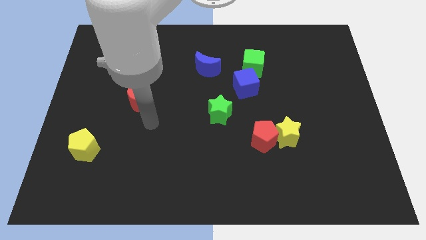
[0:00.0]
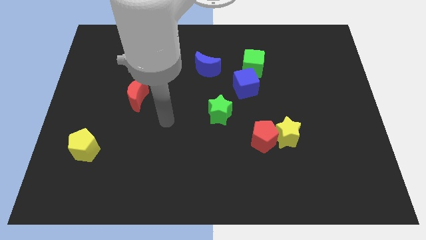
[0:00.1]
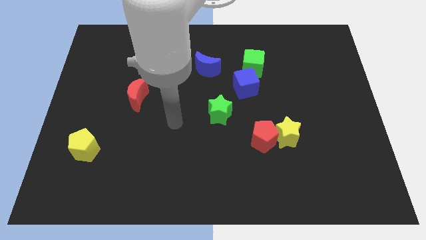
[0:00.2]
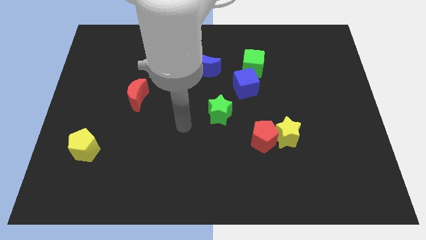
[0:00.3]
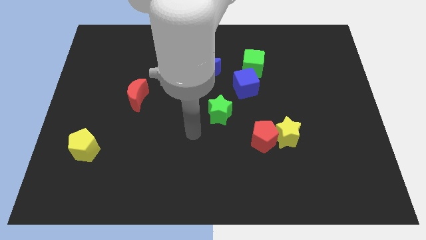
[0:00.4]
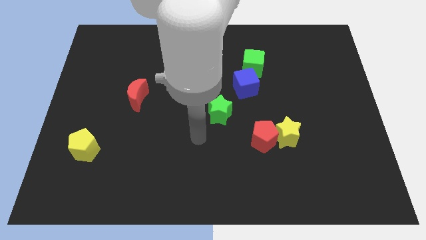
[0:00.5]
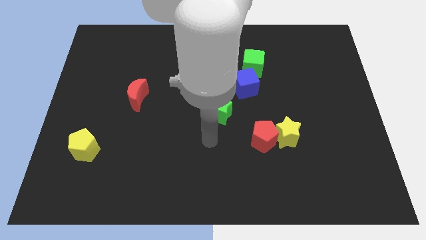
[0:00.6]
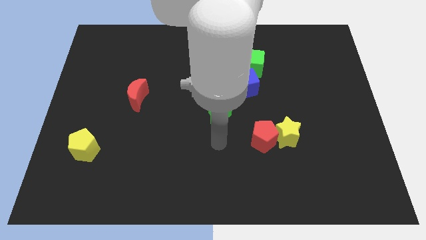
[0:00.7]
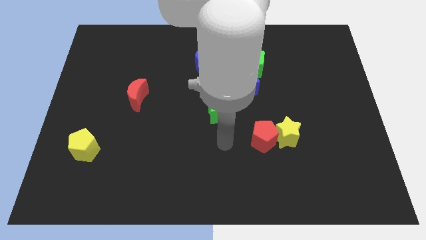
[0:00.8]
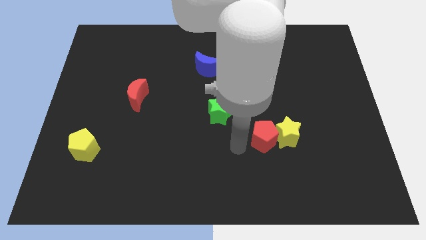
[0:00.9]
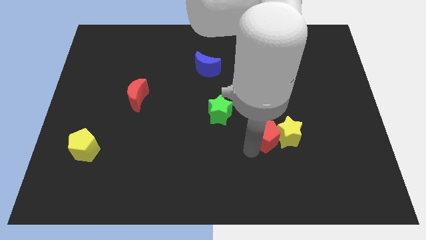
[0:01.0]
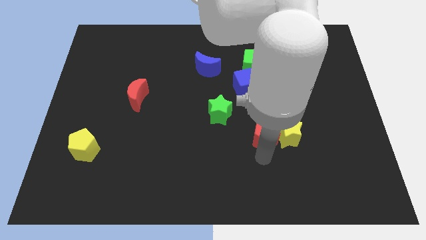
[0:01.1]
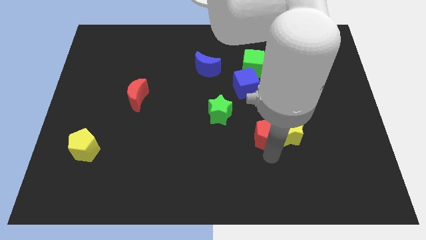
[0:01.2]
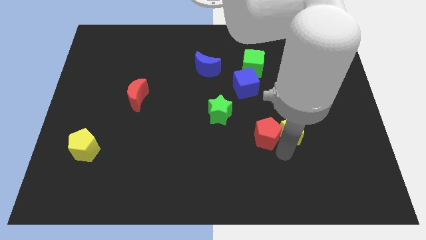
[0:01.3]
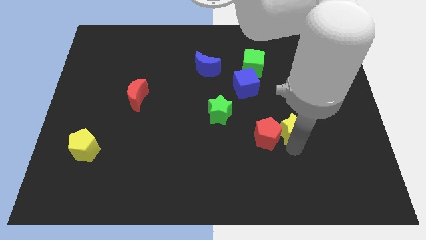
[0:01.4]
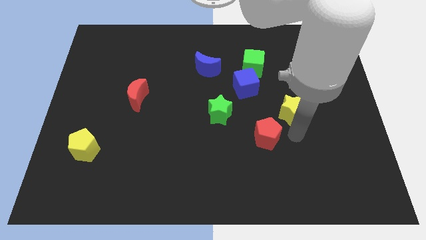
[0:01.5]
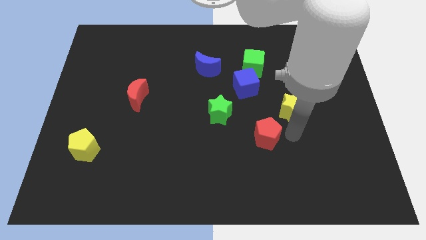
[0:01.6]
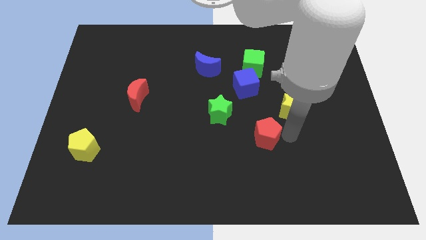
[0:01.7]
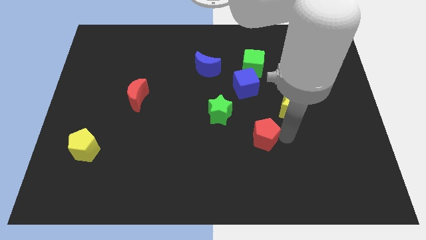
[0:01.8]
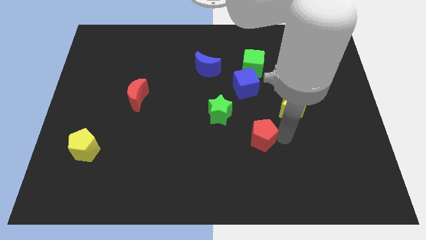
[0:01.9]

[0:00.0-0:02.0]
separate the red pentagon from the yellow star

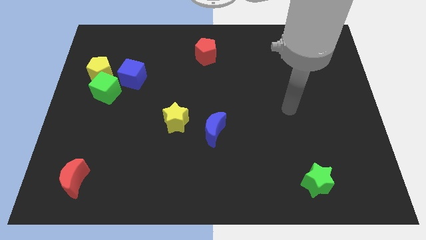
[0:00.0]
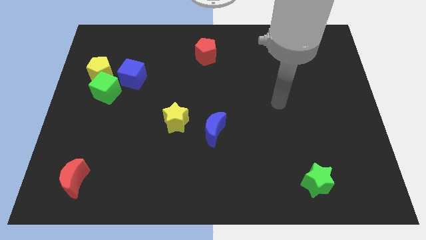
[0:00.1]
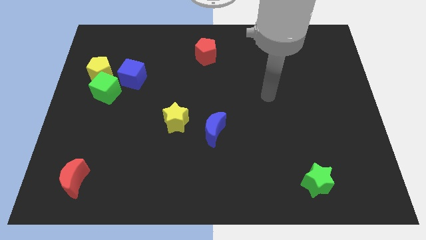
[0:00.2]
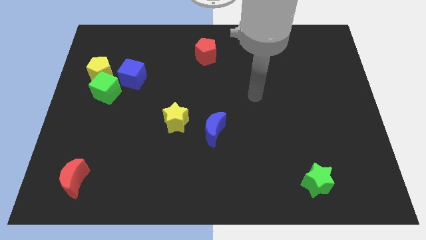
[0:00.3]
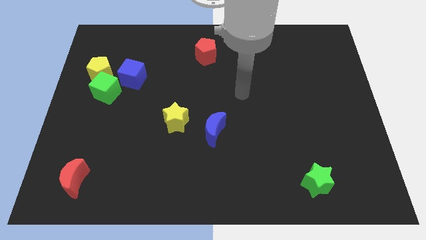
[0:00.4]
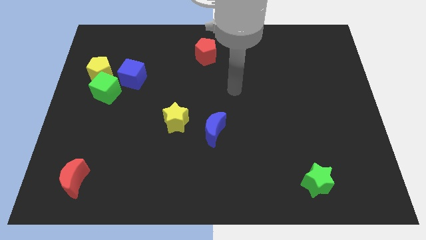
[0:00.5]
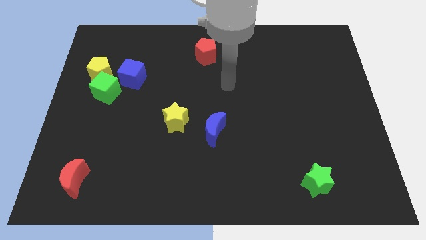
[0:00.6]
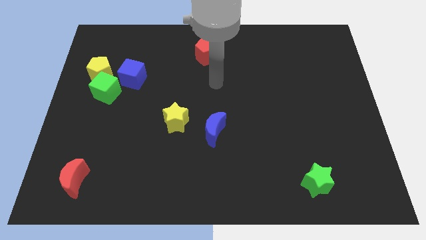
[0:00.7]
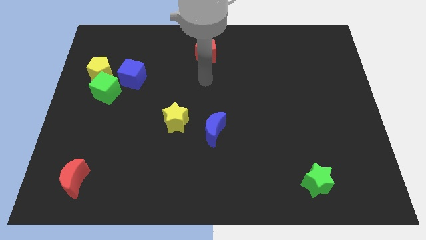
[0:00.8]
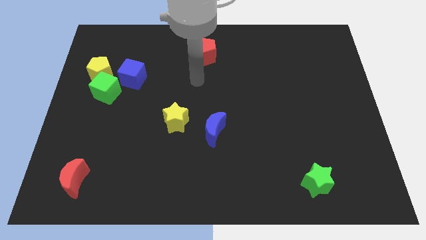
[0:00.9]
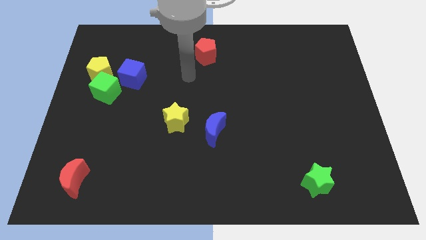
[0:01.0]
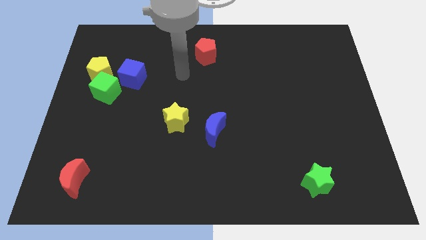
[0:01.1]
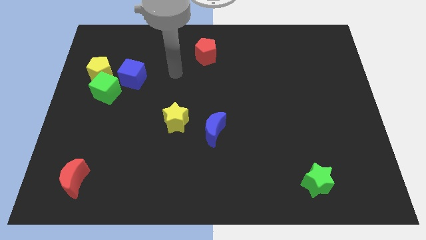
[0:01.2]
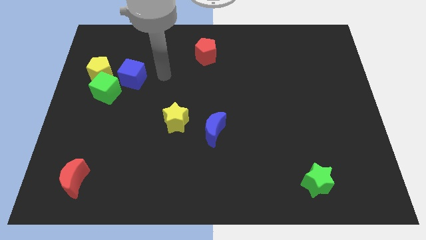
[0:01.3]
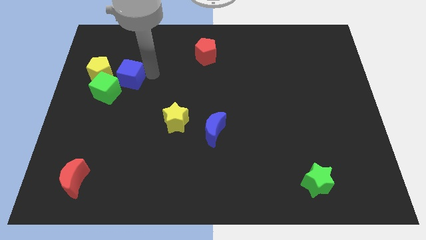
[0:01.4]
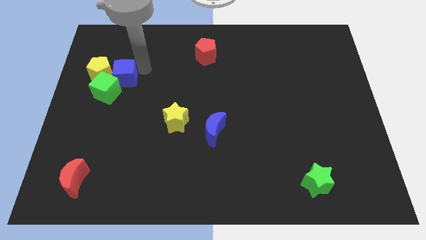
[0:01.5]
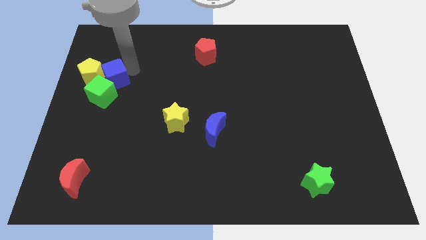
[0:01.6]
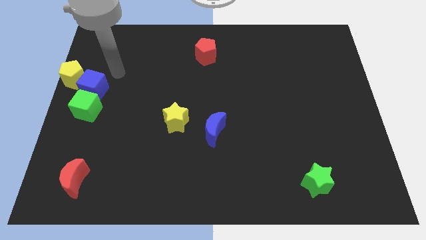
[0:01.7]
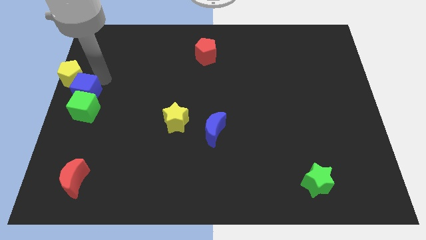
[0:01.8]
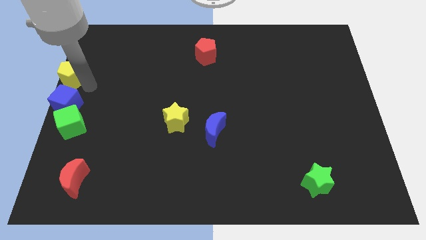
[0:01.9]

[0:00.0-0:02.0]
separate the green cube from the yellow pentagon and blue cube

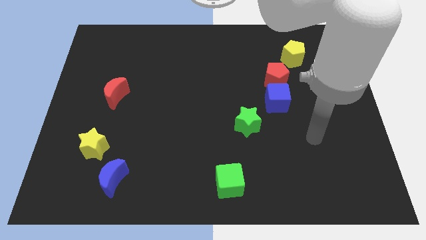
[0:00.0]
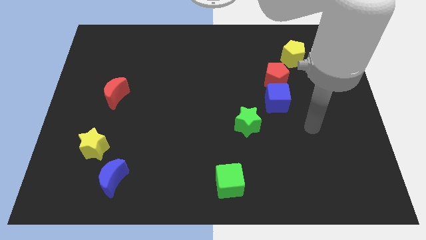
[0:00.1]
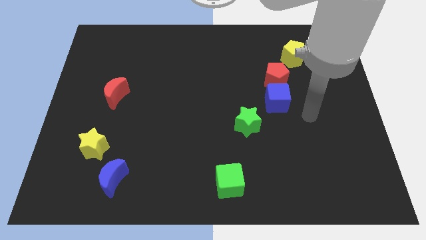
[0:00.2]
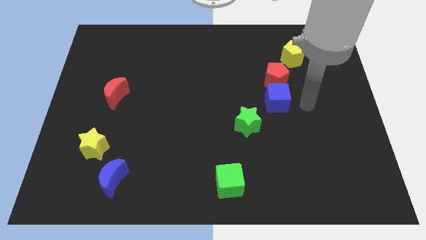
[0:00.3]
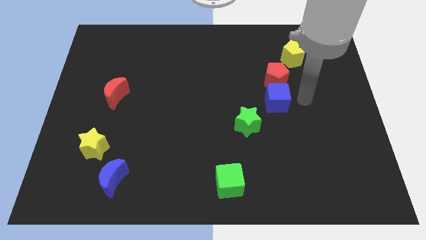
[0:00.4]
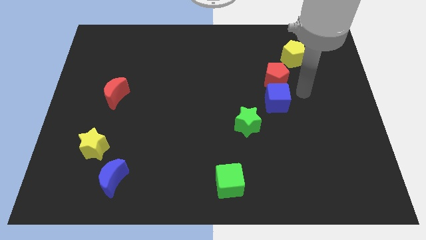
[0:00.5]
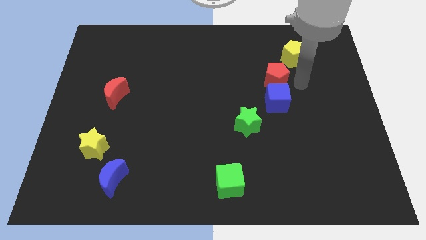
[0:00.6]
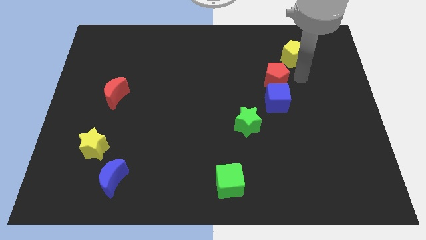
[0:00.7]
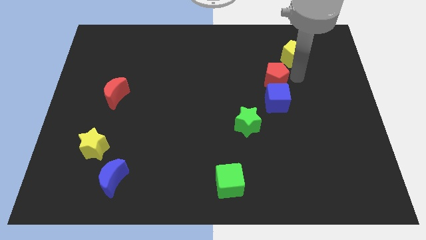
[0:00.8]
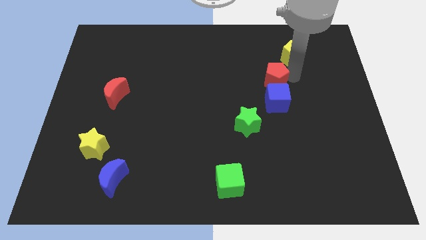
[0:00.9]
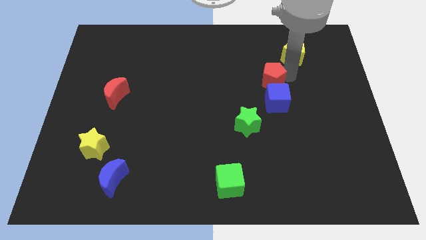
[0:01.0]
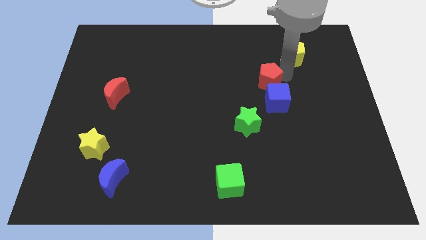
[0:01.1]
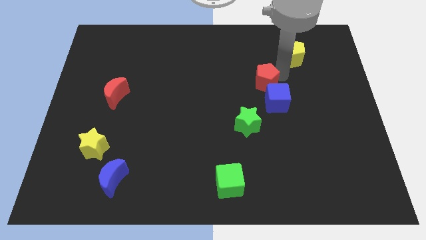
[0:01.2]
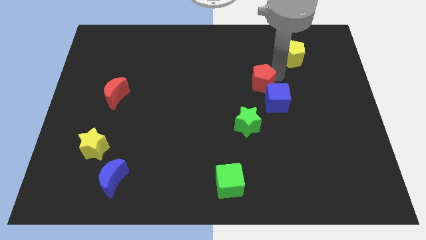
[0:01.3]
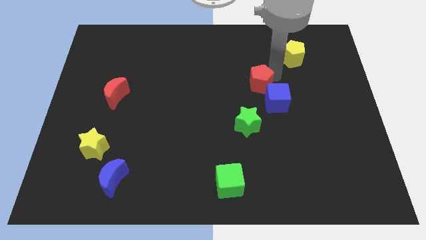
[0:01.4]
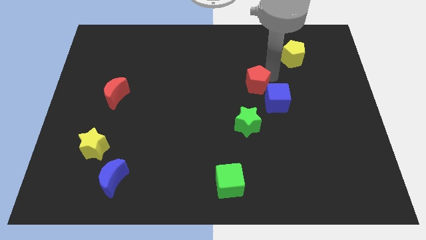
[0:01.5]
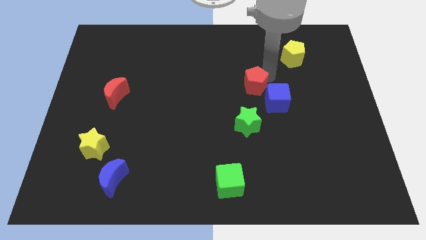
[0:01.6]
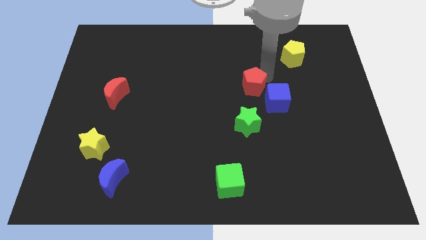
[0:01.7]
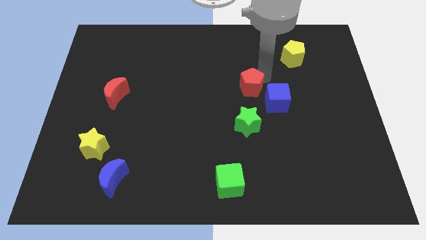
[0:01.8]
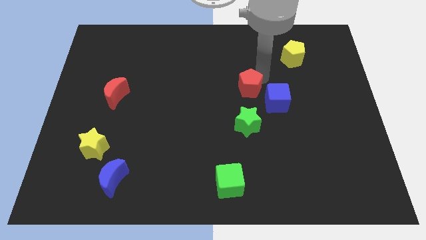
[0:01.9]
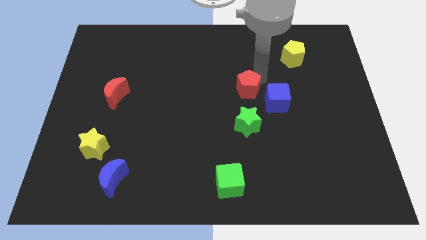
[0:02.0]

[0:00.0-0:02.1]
pull the red pentagon apart from the blue cube and yellow pentagon

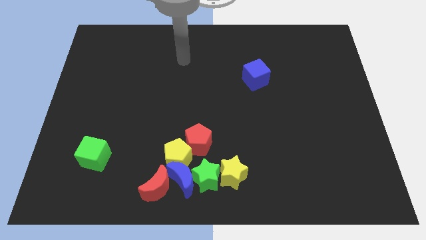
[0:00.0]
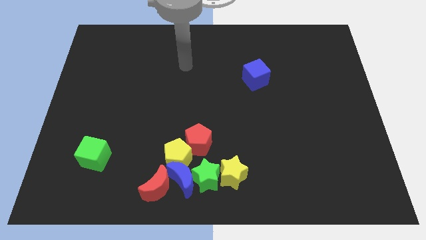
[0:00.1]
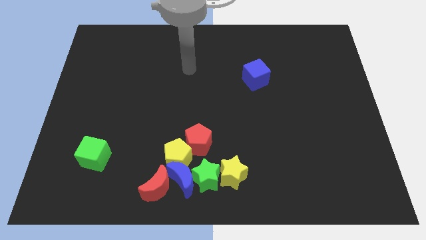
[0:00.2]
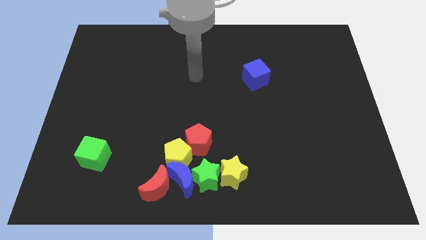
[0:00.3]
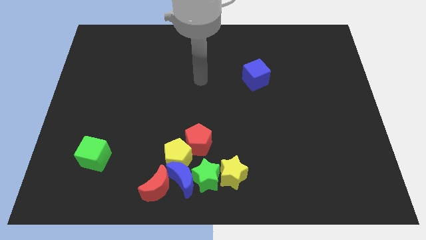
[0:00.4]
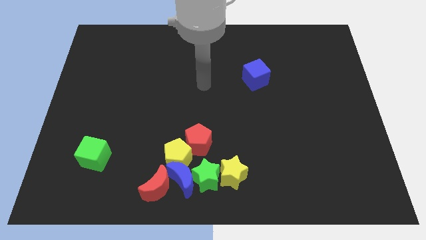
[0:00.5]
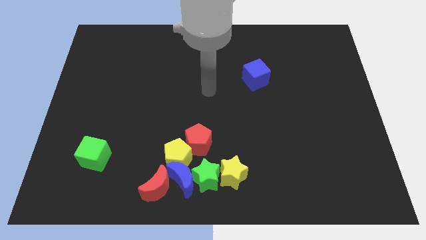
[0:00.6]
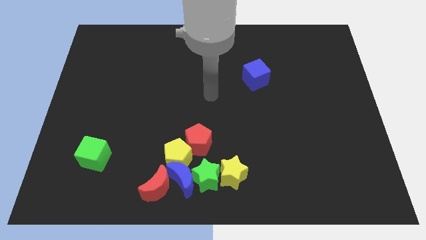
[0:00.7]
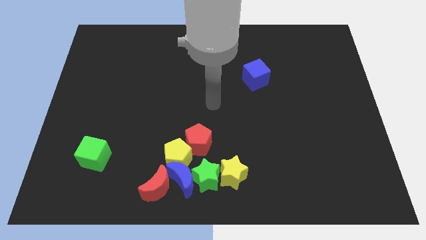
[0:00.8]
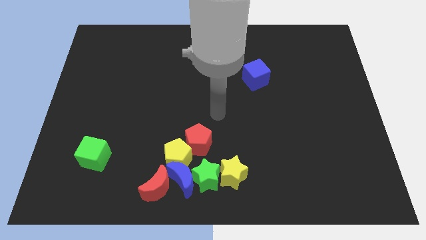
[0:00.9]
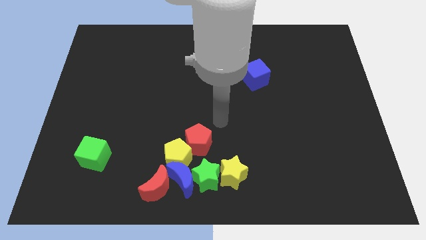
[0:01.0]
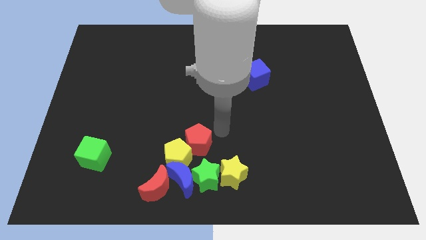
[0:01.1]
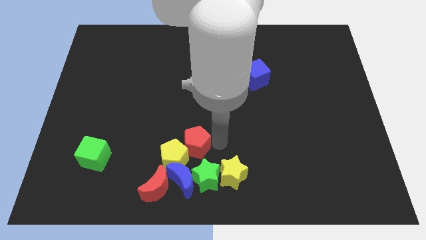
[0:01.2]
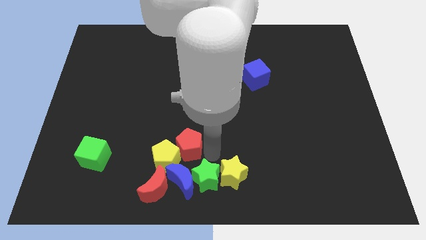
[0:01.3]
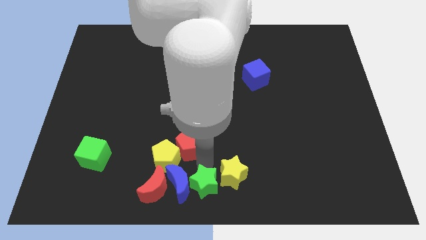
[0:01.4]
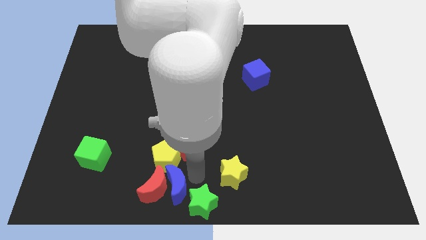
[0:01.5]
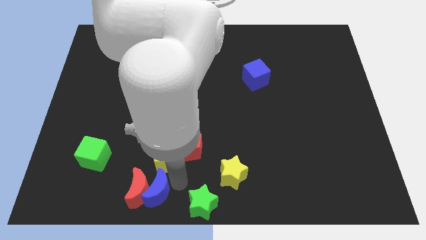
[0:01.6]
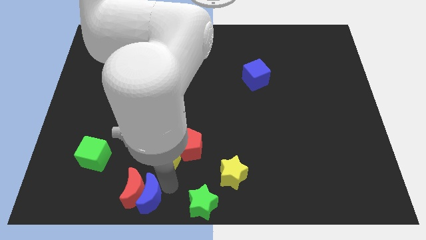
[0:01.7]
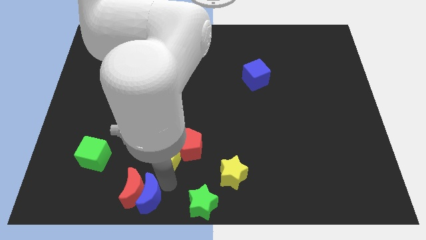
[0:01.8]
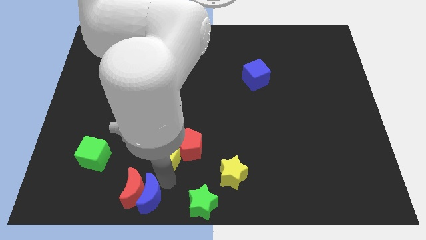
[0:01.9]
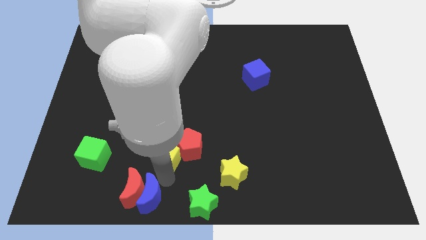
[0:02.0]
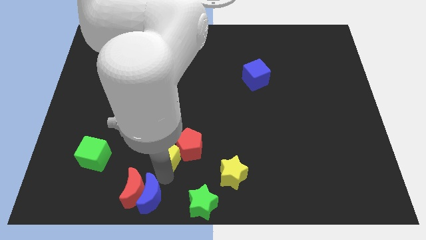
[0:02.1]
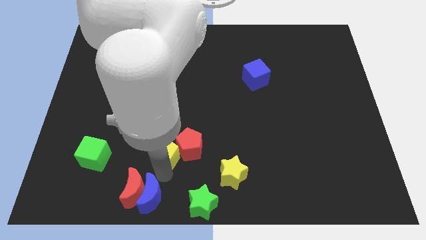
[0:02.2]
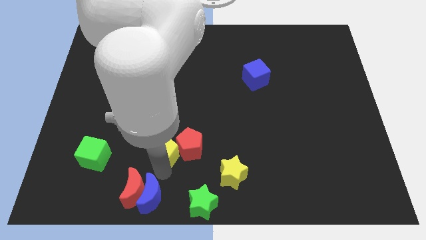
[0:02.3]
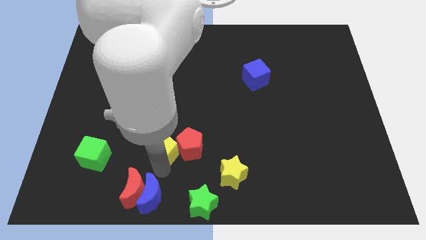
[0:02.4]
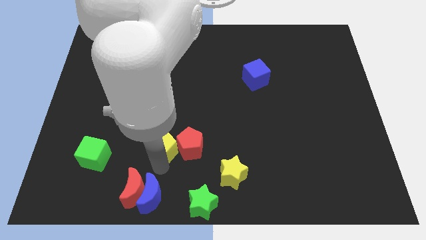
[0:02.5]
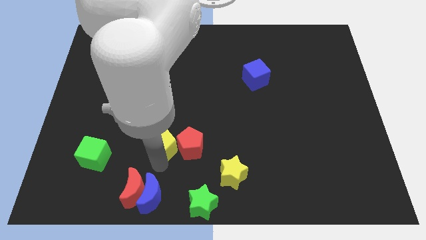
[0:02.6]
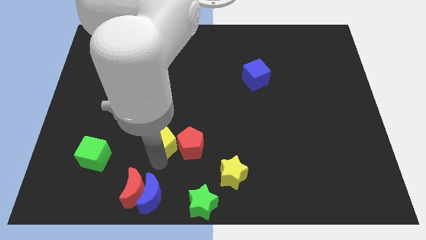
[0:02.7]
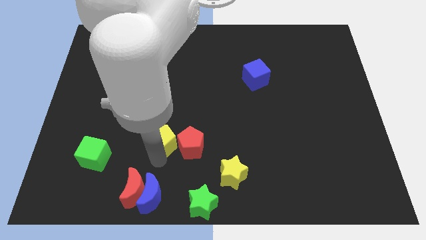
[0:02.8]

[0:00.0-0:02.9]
move the yellow pentagon away from the clump

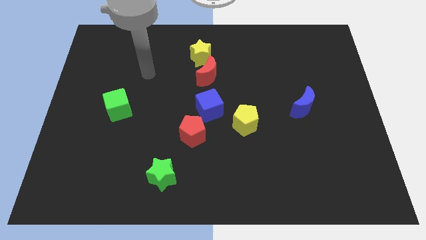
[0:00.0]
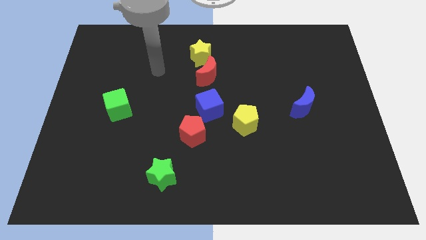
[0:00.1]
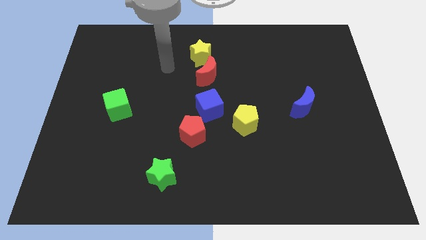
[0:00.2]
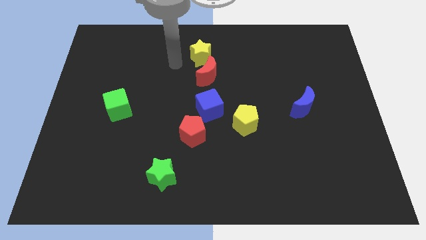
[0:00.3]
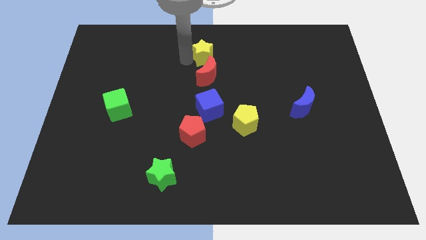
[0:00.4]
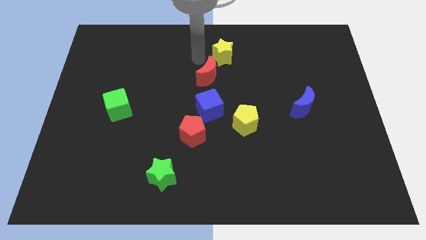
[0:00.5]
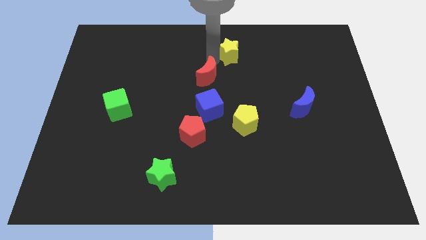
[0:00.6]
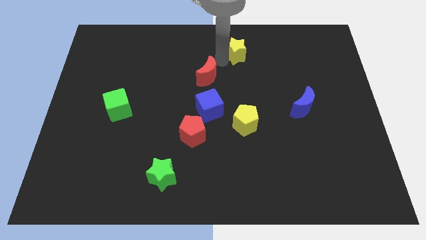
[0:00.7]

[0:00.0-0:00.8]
separate the red moon from the yellow star
